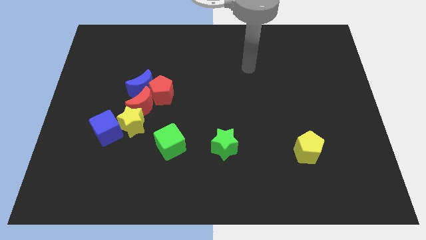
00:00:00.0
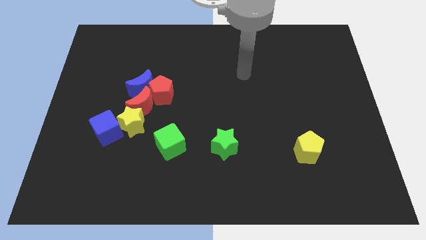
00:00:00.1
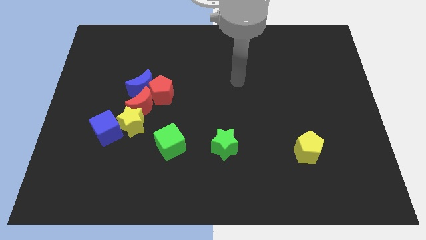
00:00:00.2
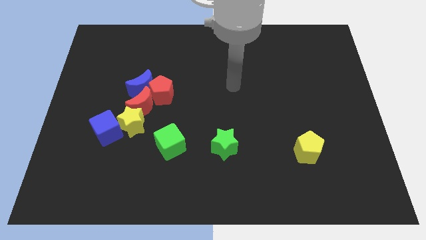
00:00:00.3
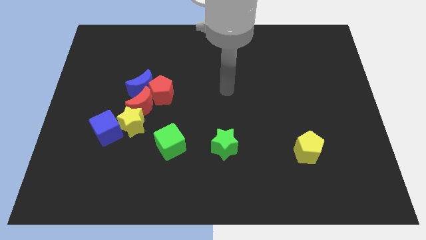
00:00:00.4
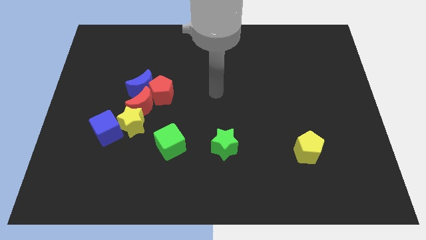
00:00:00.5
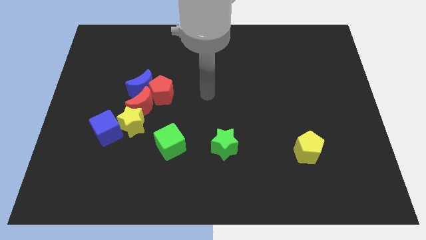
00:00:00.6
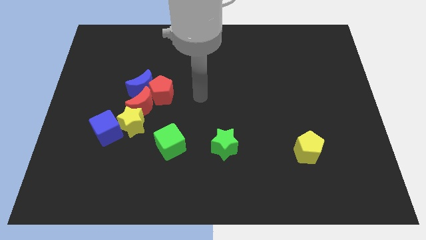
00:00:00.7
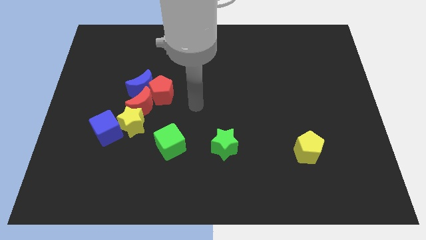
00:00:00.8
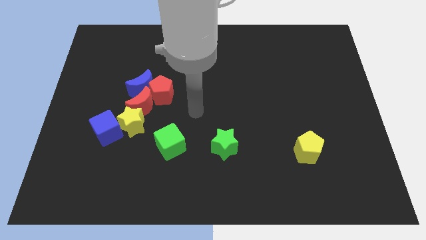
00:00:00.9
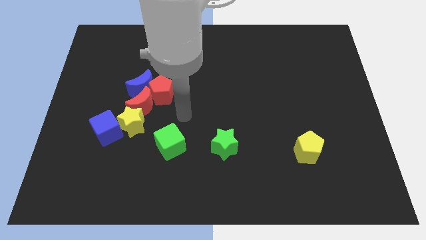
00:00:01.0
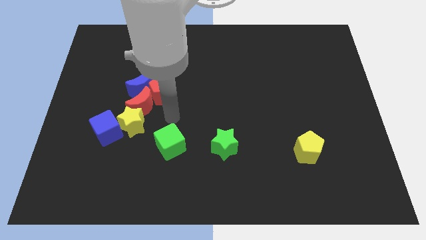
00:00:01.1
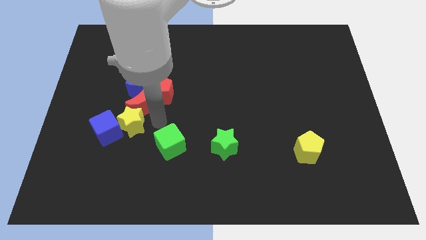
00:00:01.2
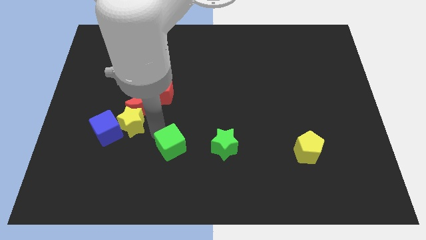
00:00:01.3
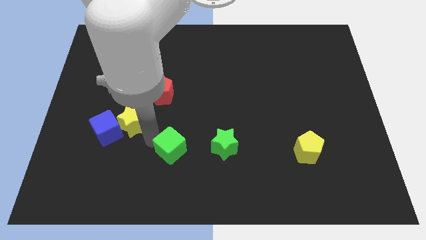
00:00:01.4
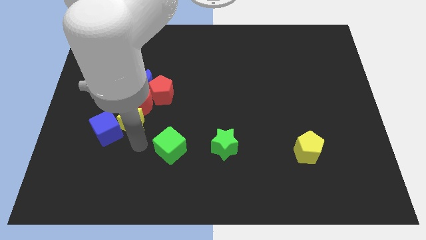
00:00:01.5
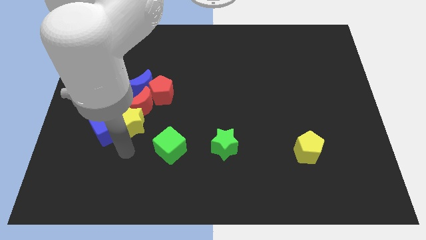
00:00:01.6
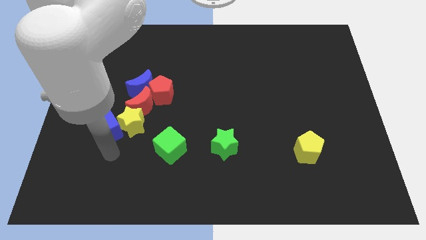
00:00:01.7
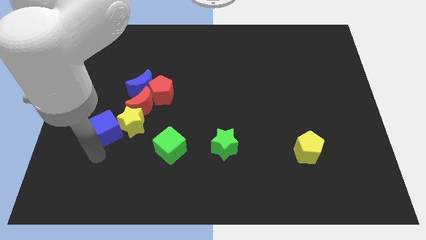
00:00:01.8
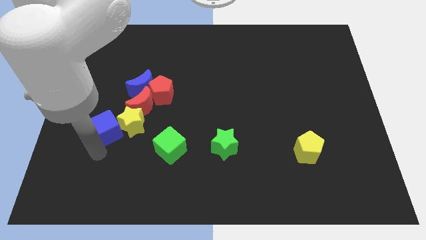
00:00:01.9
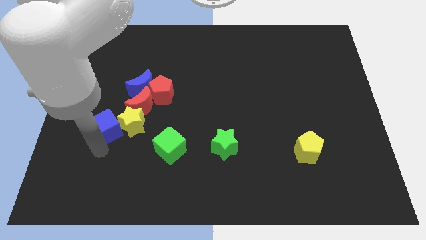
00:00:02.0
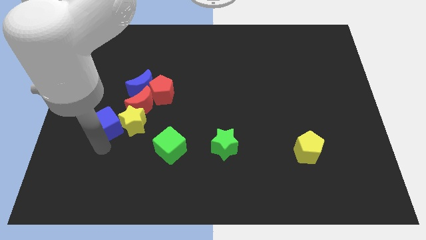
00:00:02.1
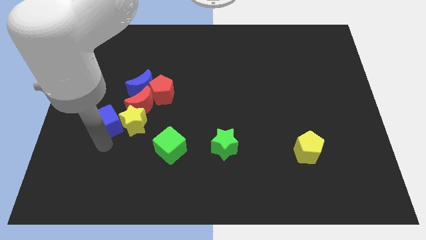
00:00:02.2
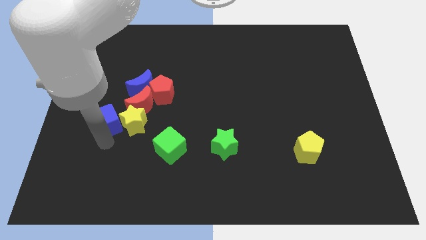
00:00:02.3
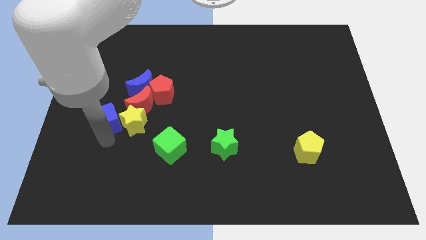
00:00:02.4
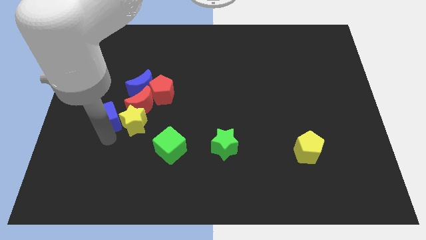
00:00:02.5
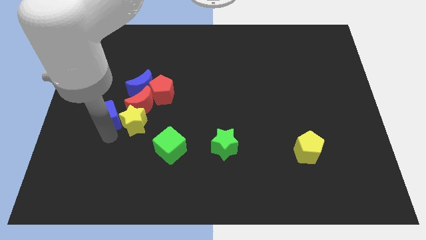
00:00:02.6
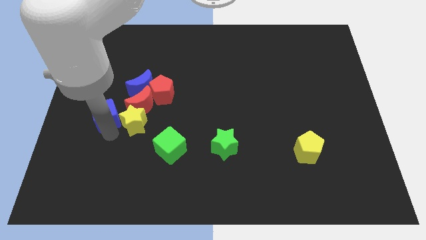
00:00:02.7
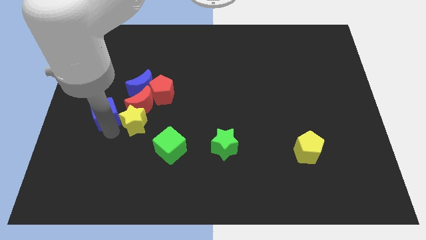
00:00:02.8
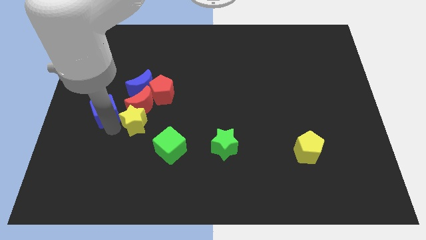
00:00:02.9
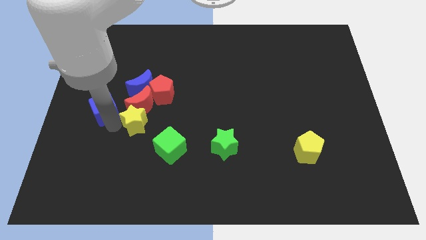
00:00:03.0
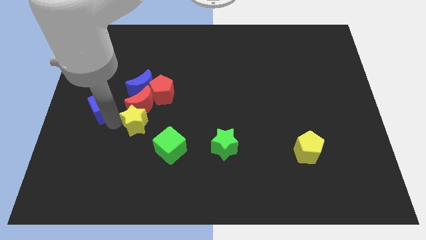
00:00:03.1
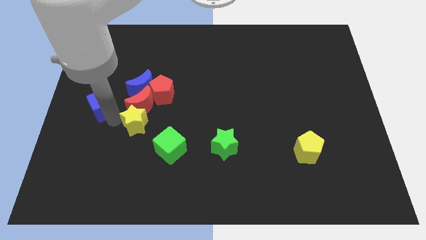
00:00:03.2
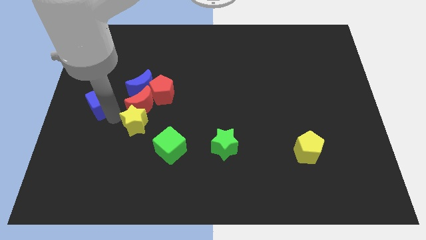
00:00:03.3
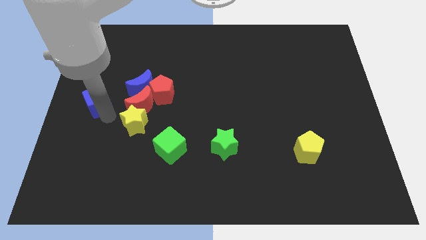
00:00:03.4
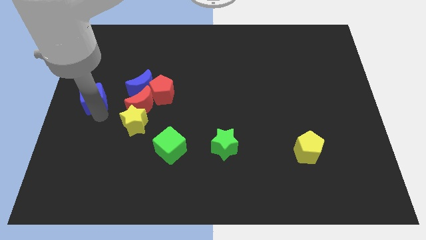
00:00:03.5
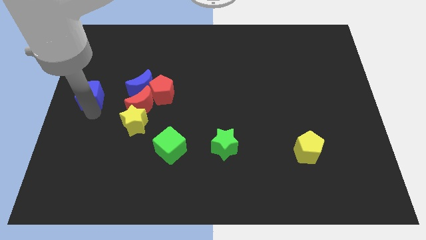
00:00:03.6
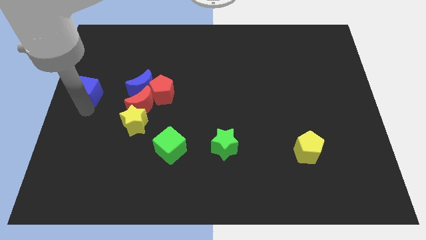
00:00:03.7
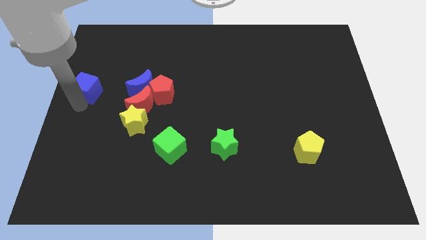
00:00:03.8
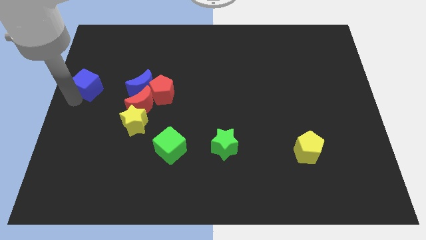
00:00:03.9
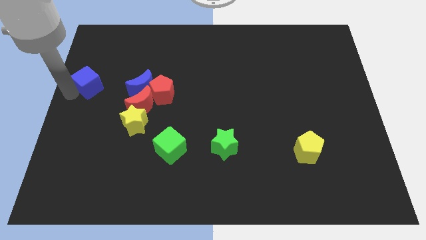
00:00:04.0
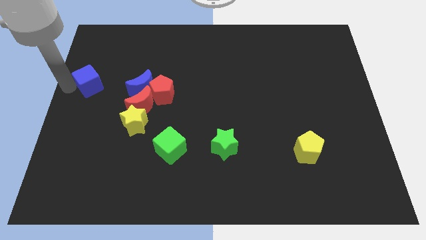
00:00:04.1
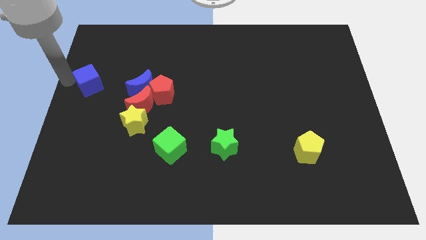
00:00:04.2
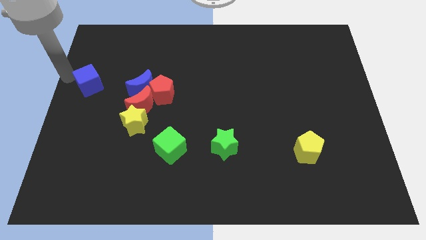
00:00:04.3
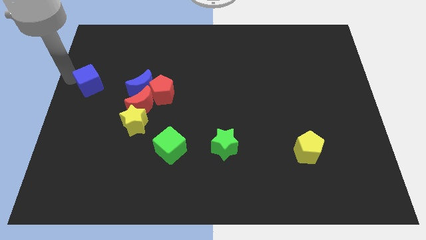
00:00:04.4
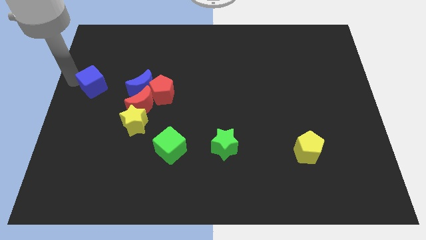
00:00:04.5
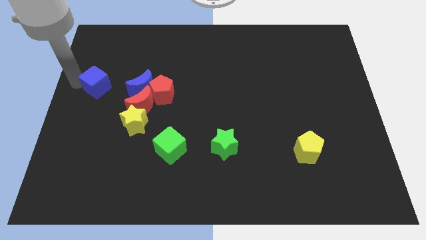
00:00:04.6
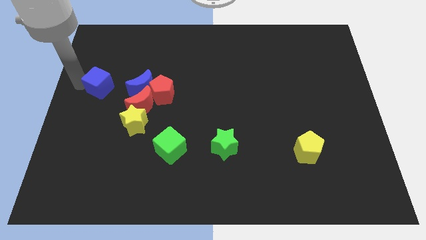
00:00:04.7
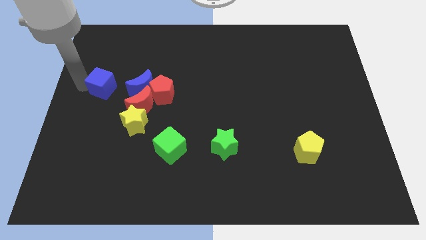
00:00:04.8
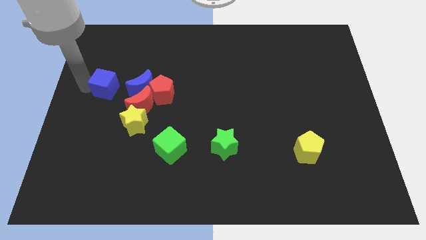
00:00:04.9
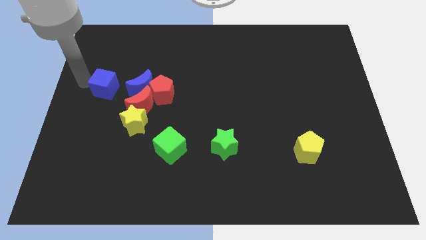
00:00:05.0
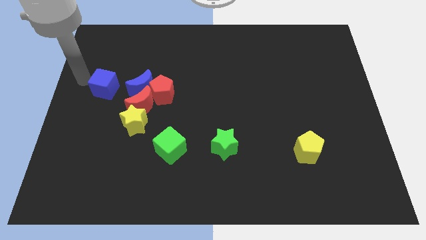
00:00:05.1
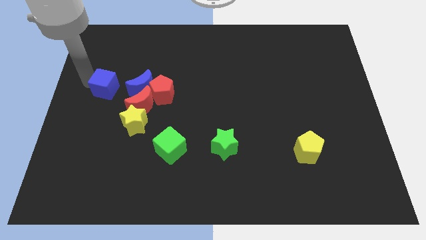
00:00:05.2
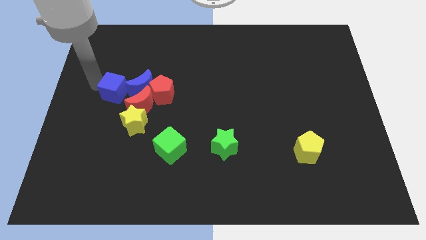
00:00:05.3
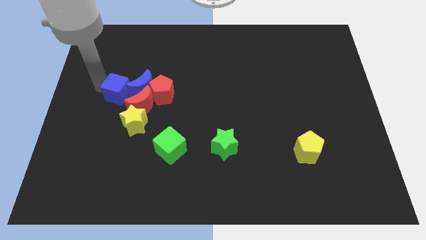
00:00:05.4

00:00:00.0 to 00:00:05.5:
push the blue cube to the blue moon

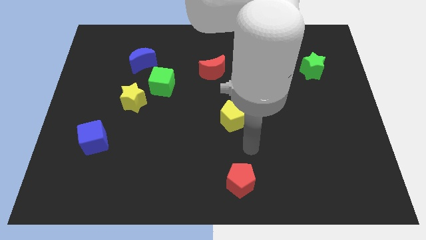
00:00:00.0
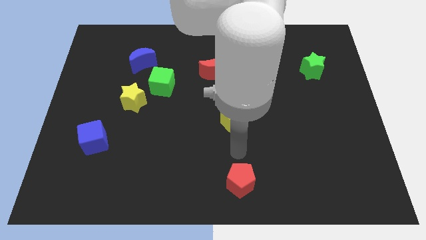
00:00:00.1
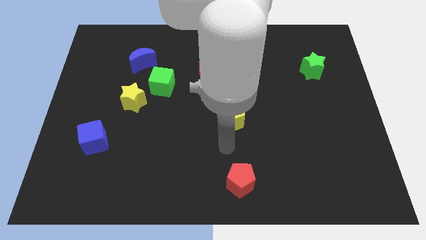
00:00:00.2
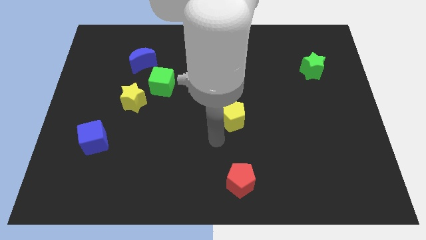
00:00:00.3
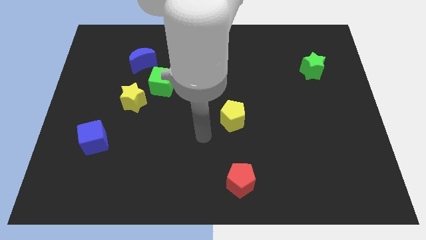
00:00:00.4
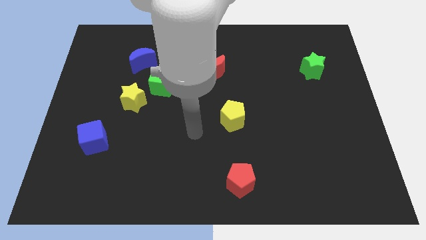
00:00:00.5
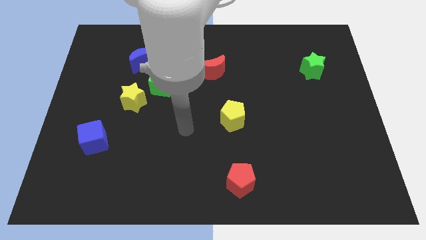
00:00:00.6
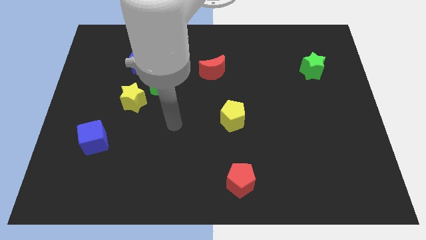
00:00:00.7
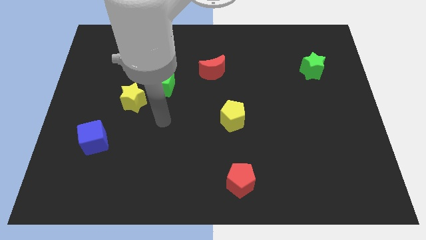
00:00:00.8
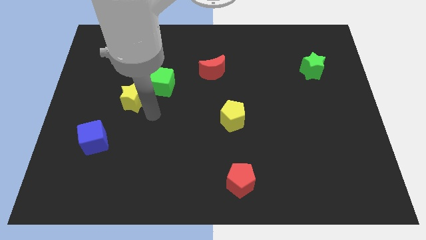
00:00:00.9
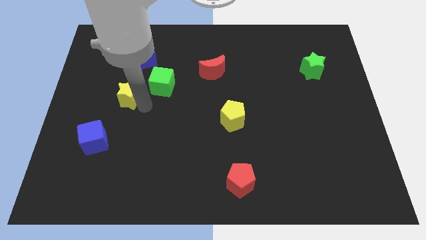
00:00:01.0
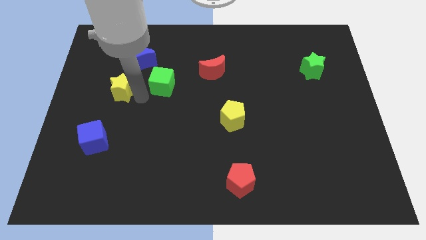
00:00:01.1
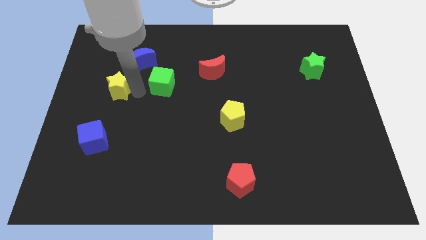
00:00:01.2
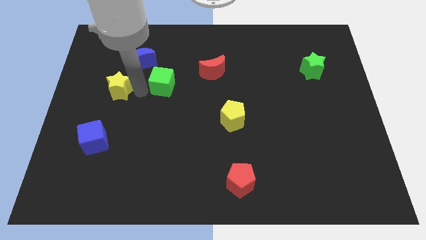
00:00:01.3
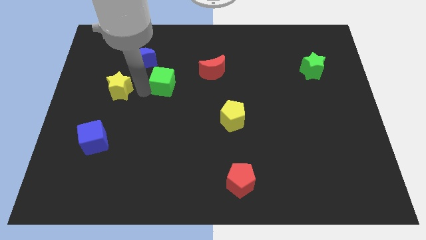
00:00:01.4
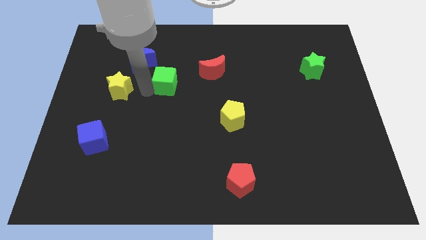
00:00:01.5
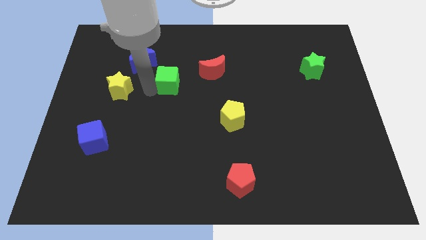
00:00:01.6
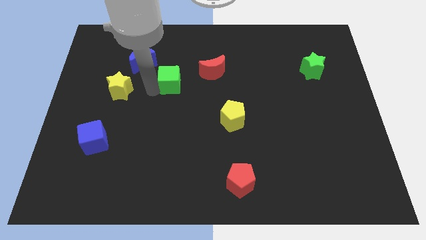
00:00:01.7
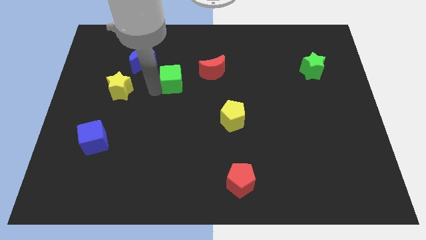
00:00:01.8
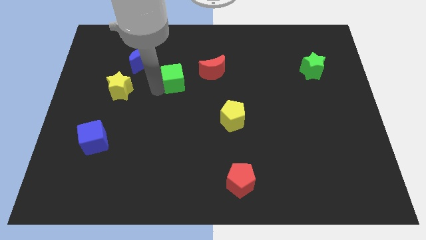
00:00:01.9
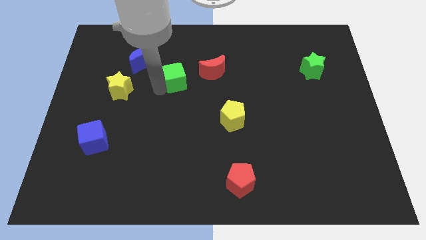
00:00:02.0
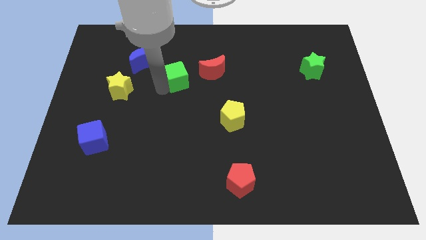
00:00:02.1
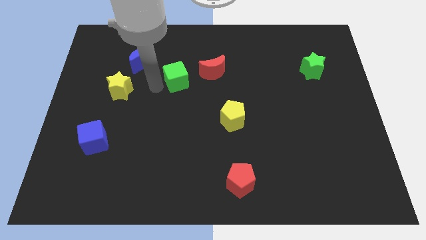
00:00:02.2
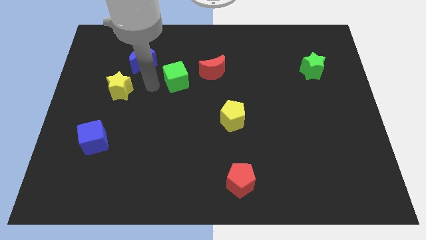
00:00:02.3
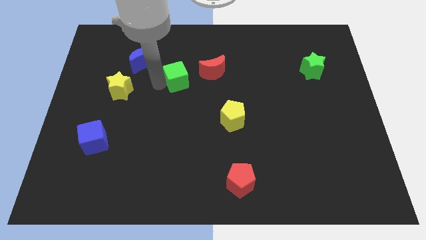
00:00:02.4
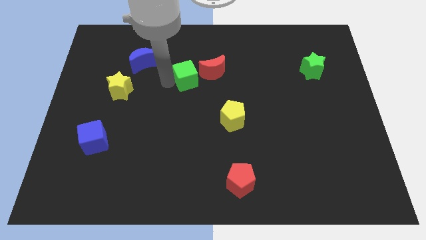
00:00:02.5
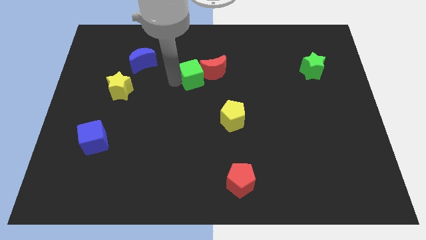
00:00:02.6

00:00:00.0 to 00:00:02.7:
move the green cube close to the red moon
